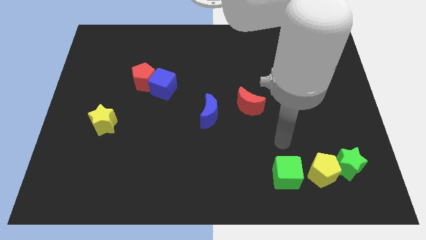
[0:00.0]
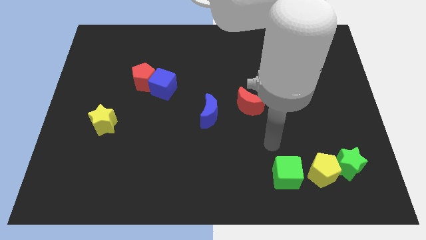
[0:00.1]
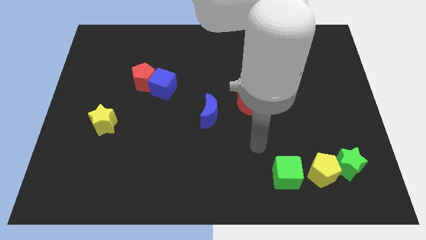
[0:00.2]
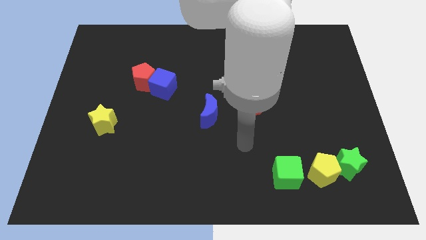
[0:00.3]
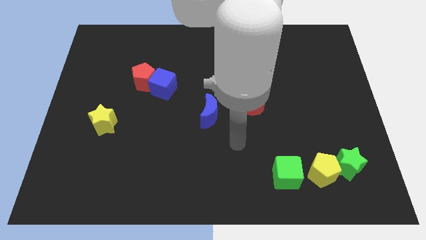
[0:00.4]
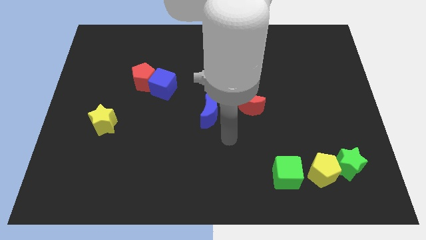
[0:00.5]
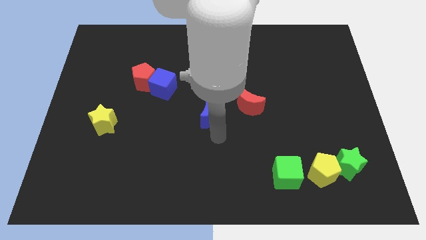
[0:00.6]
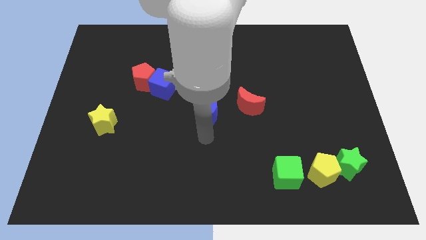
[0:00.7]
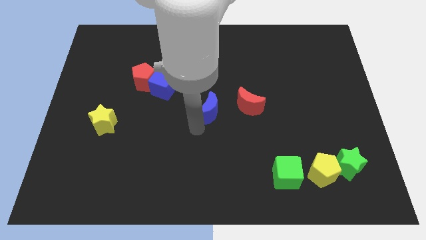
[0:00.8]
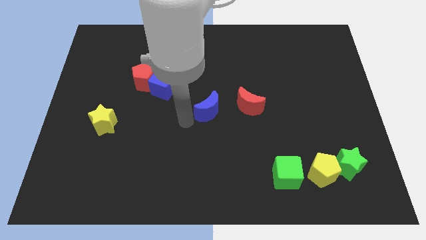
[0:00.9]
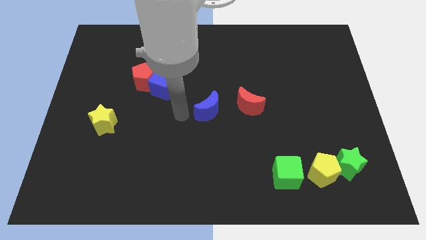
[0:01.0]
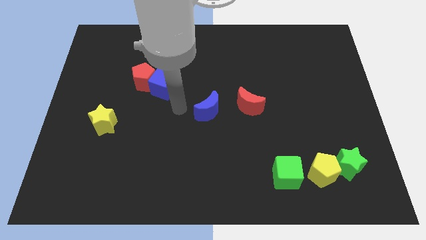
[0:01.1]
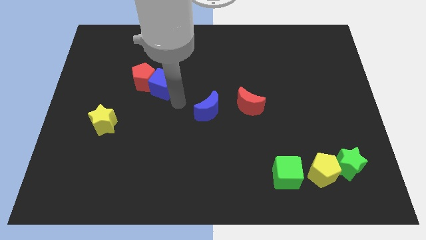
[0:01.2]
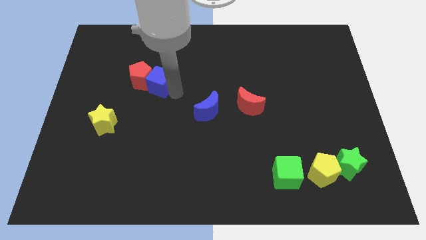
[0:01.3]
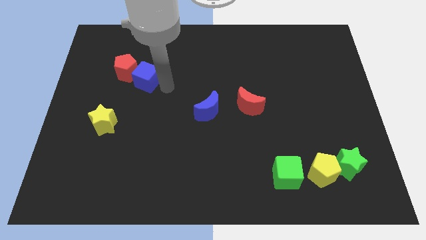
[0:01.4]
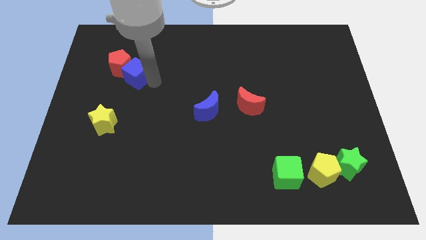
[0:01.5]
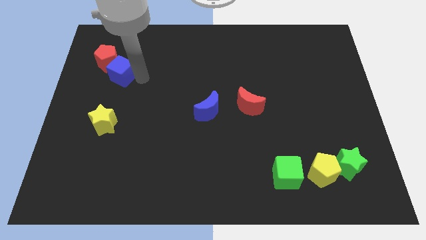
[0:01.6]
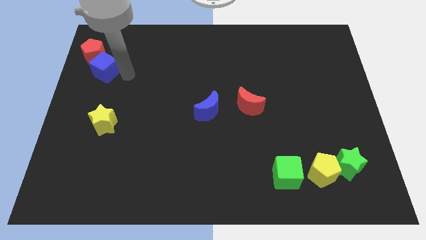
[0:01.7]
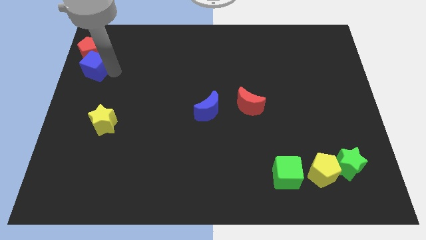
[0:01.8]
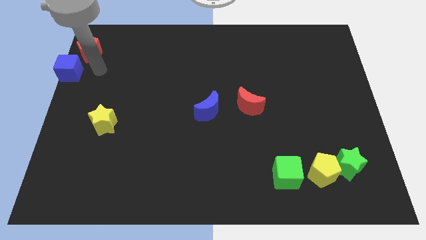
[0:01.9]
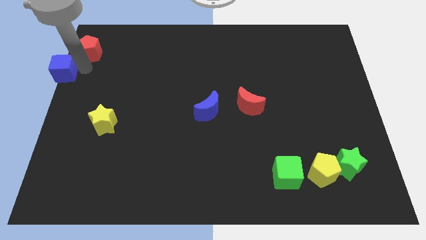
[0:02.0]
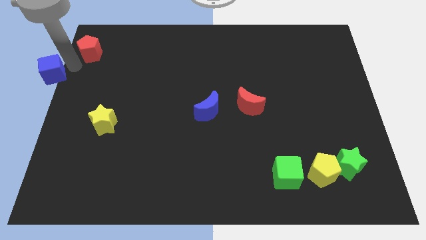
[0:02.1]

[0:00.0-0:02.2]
pull the red pentagon apart from the blue cube

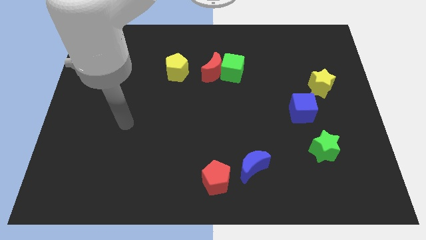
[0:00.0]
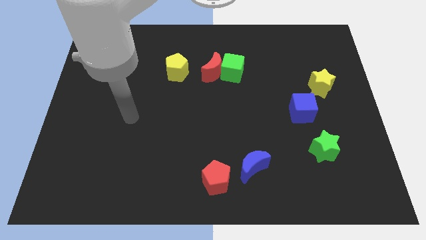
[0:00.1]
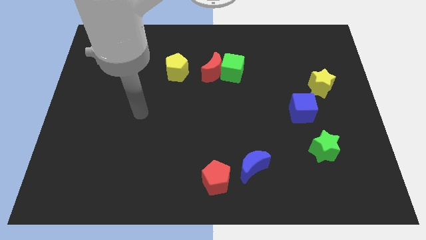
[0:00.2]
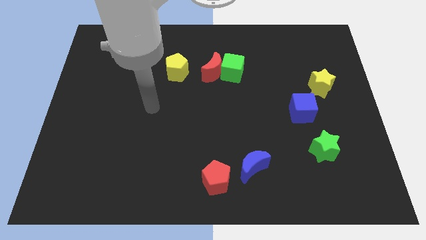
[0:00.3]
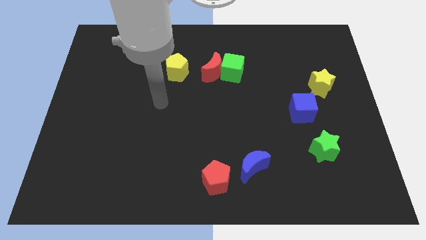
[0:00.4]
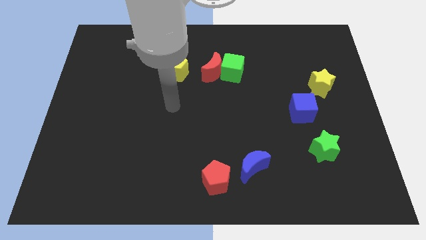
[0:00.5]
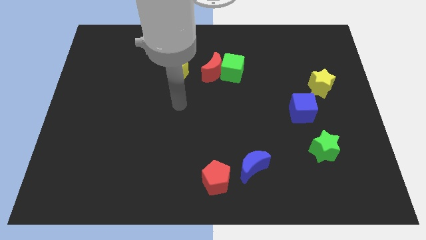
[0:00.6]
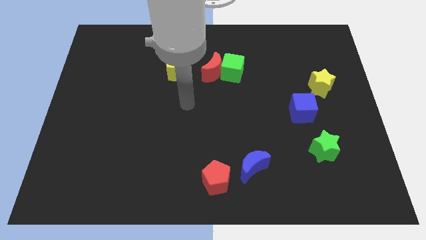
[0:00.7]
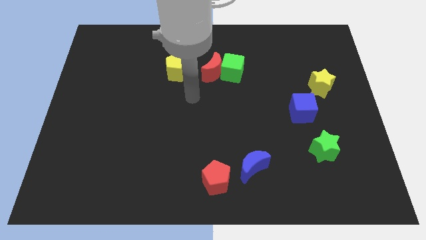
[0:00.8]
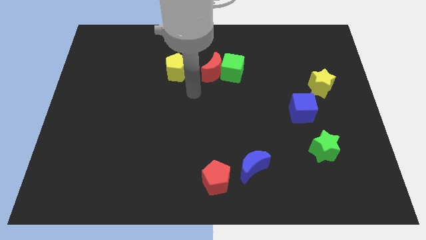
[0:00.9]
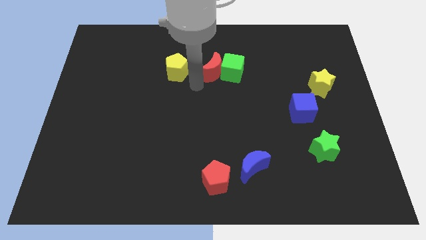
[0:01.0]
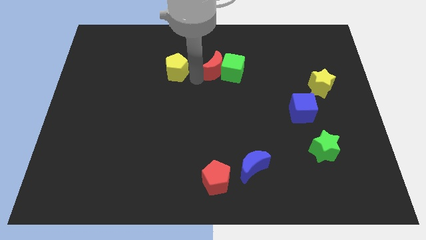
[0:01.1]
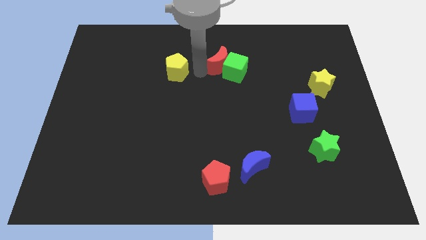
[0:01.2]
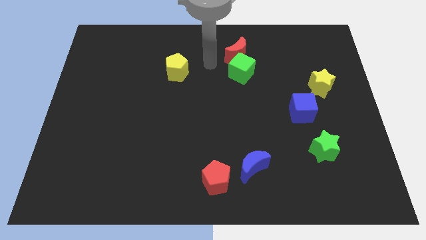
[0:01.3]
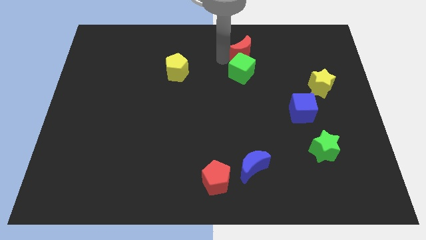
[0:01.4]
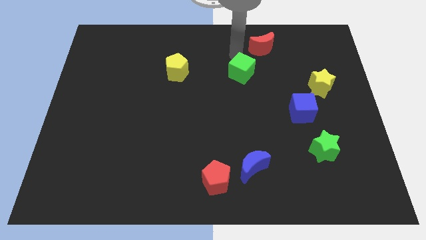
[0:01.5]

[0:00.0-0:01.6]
move the green cube away from the red moon

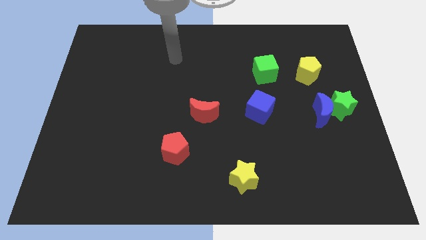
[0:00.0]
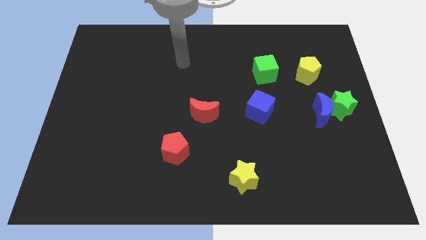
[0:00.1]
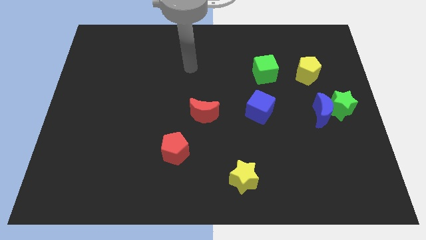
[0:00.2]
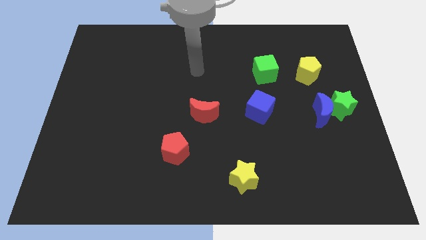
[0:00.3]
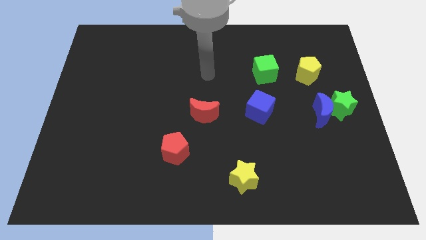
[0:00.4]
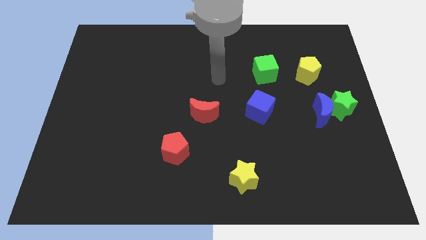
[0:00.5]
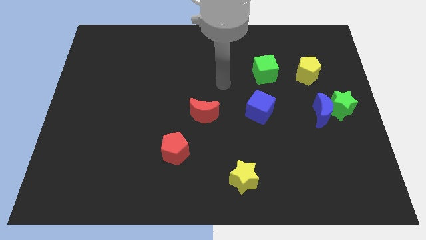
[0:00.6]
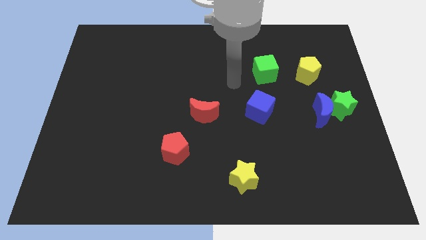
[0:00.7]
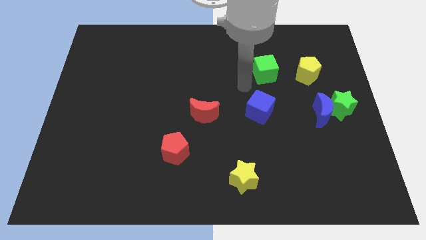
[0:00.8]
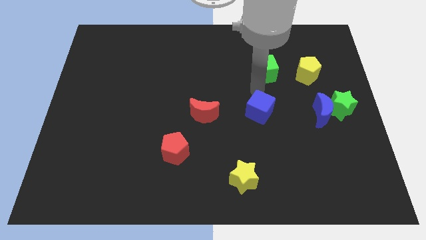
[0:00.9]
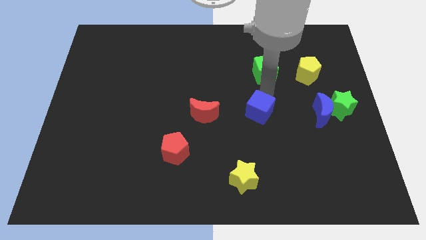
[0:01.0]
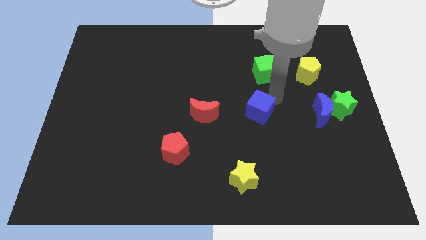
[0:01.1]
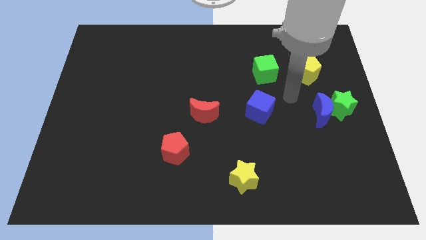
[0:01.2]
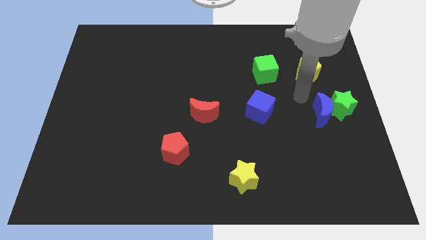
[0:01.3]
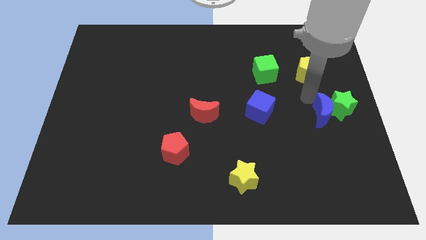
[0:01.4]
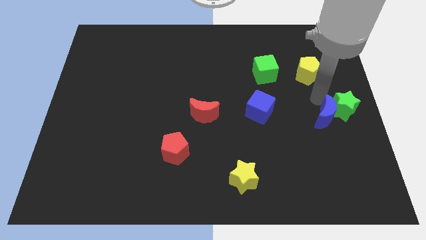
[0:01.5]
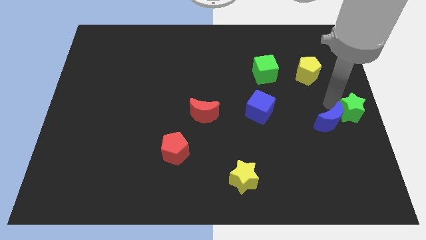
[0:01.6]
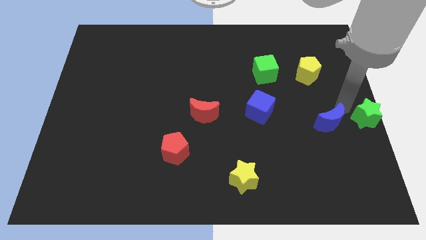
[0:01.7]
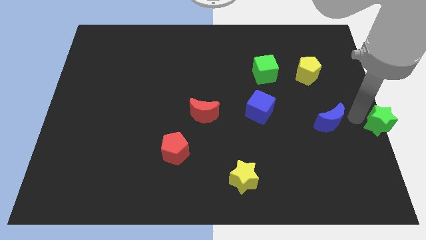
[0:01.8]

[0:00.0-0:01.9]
pull the blue moon apart from the green star

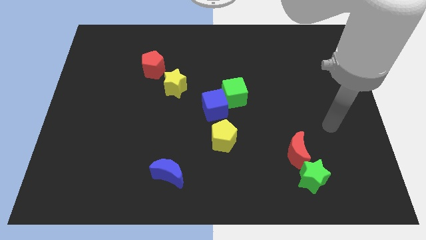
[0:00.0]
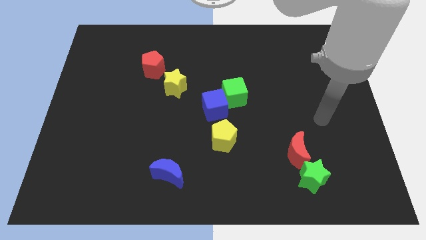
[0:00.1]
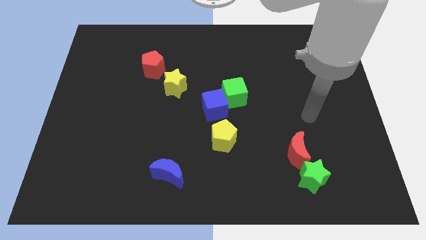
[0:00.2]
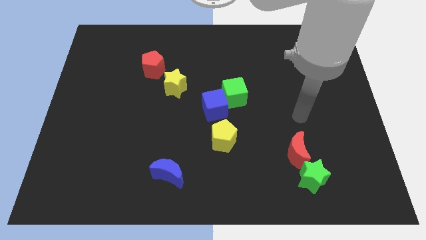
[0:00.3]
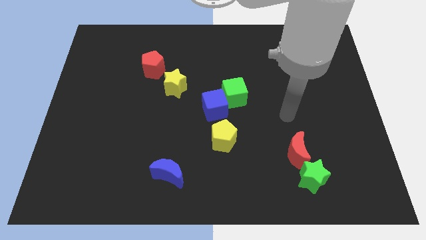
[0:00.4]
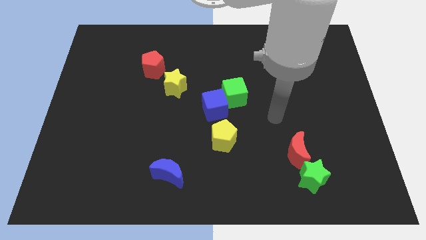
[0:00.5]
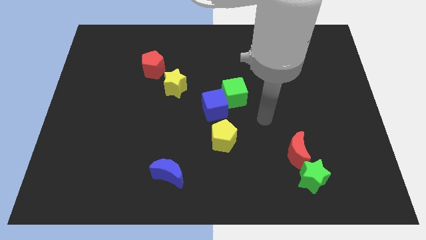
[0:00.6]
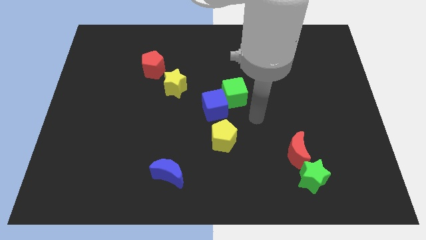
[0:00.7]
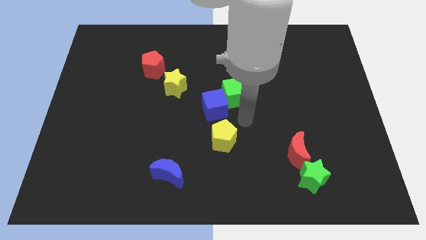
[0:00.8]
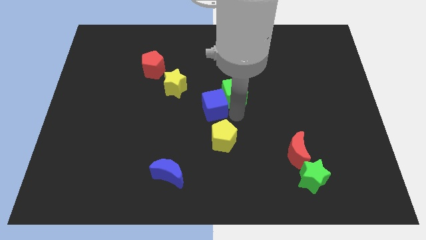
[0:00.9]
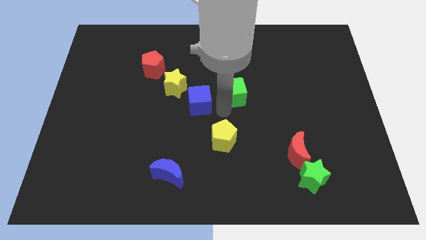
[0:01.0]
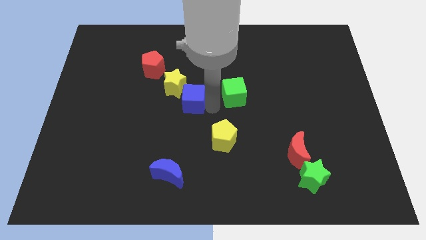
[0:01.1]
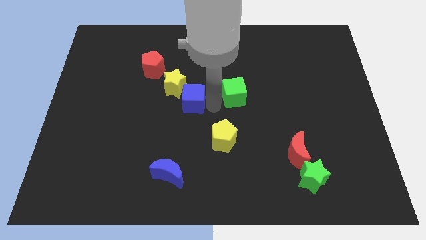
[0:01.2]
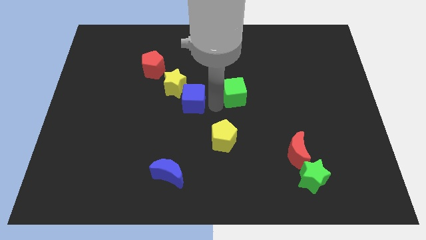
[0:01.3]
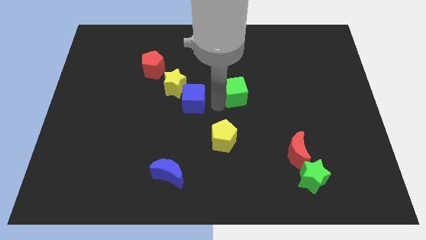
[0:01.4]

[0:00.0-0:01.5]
pull the green cube apart from the blue cube

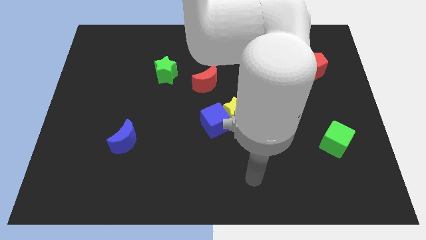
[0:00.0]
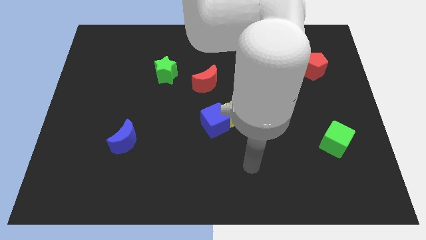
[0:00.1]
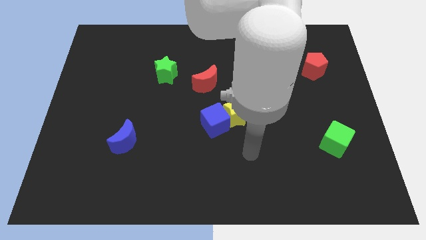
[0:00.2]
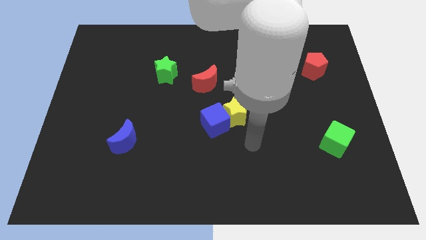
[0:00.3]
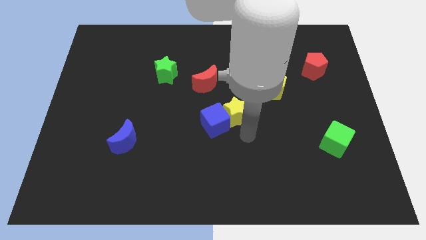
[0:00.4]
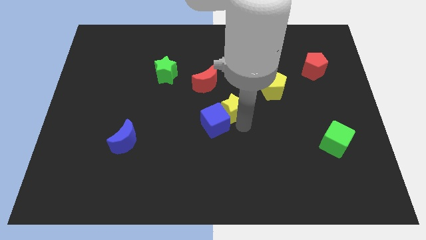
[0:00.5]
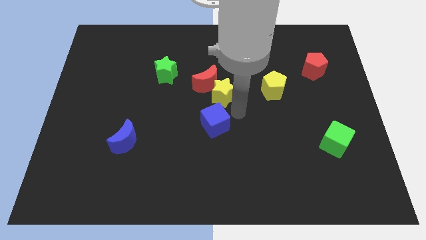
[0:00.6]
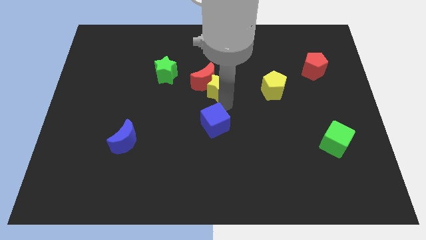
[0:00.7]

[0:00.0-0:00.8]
move the blue cube away from the yellow star

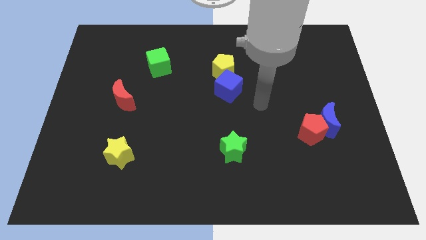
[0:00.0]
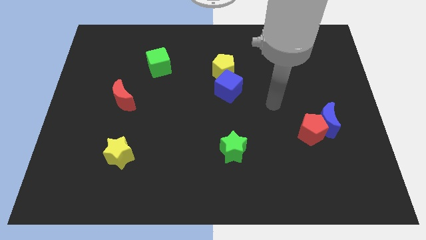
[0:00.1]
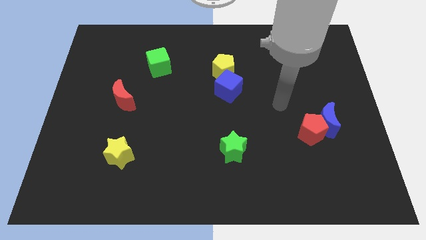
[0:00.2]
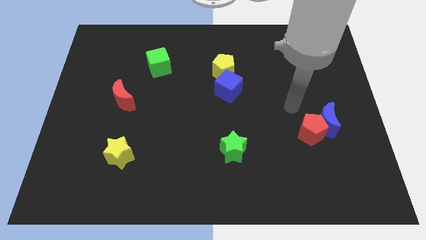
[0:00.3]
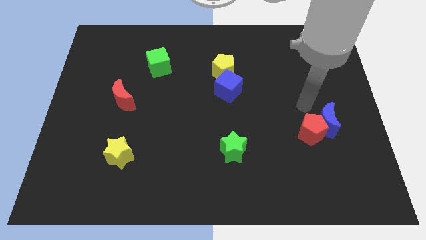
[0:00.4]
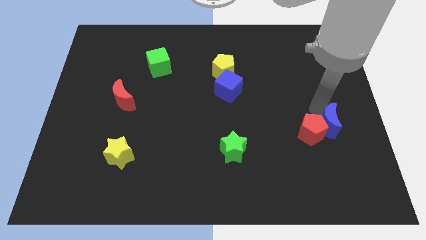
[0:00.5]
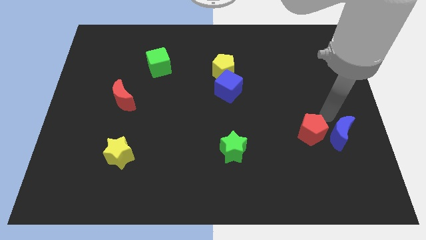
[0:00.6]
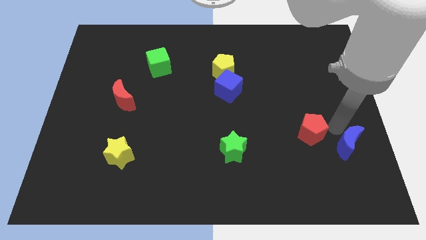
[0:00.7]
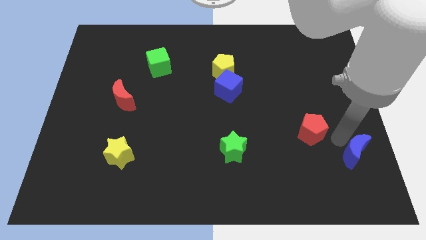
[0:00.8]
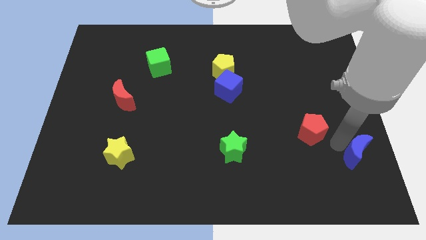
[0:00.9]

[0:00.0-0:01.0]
pull the red pentagon apart from the blue moon

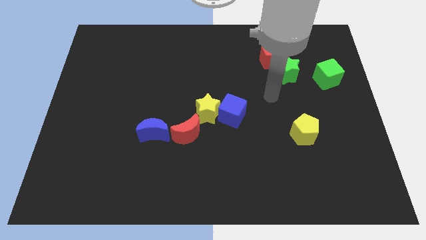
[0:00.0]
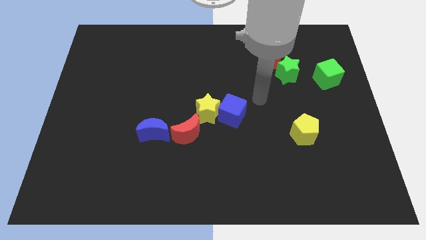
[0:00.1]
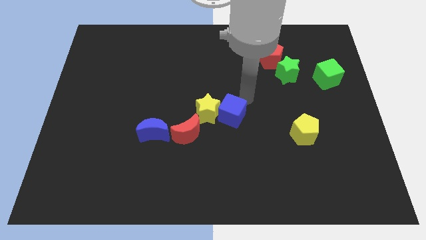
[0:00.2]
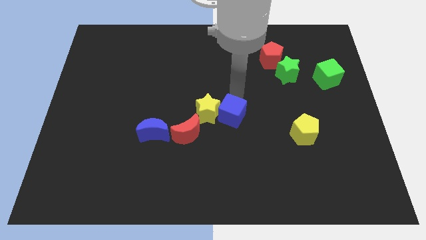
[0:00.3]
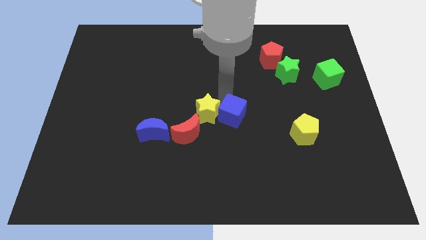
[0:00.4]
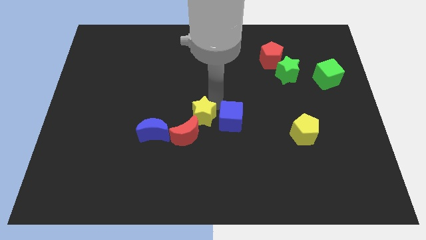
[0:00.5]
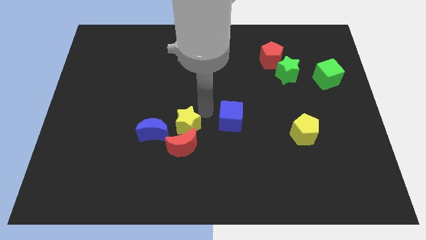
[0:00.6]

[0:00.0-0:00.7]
pull the blue cube apart from the yellow star
